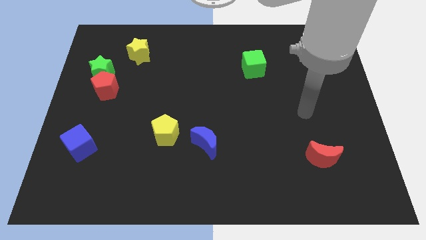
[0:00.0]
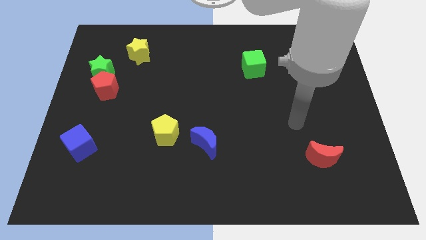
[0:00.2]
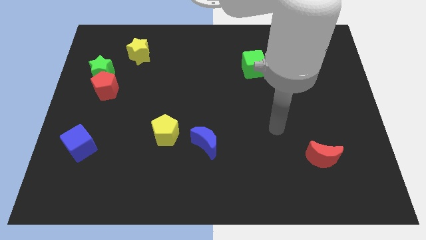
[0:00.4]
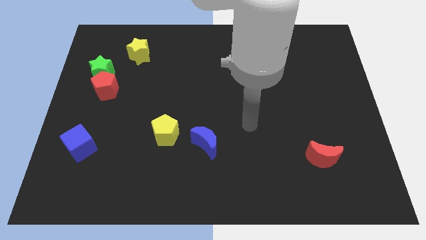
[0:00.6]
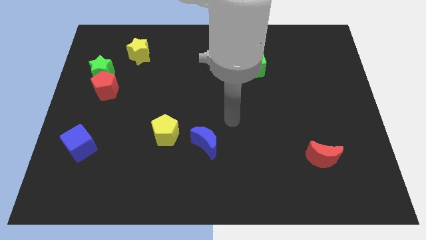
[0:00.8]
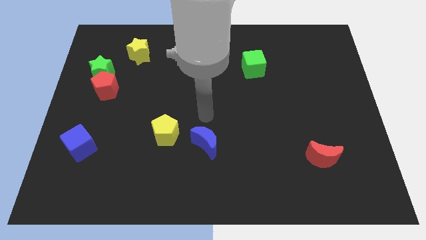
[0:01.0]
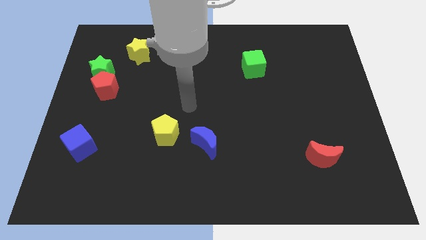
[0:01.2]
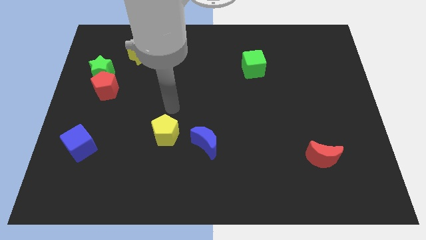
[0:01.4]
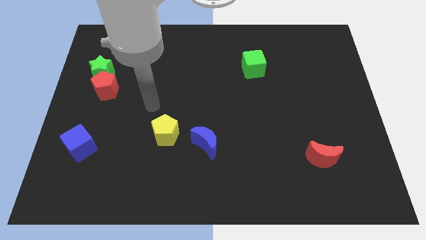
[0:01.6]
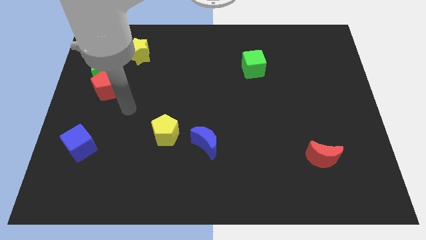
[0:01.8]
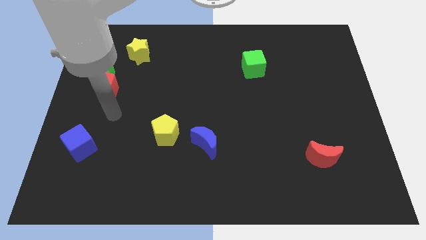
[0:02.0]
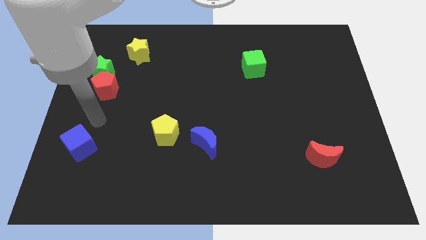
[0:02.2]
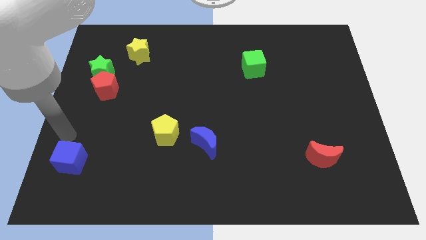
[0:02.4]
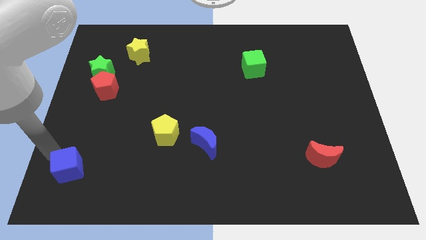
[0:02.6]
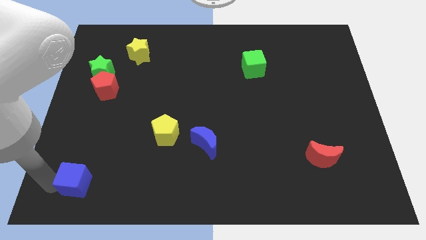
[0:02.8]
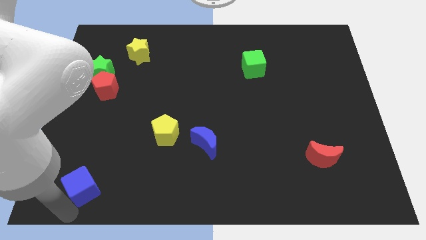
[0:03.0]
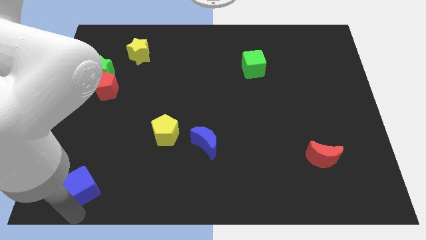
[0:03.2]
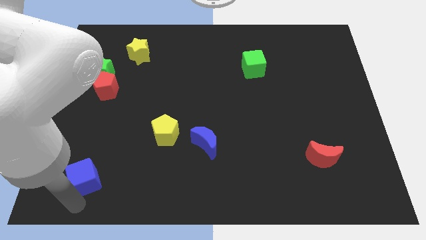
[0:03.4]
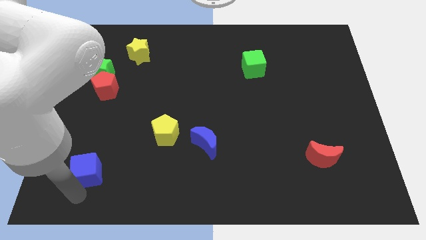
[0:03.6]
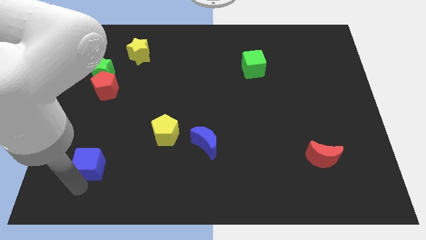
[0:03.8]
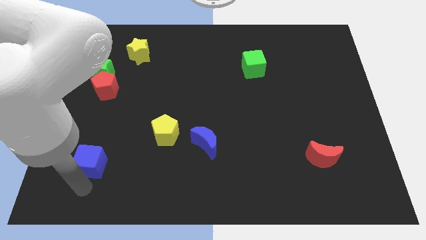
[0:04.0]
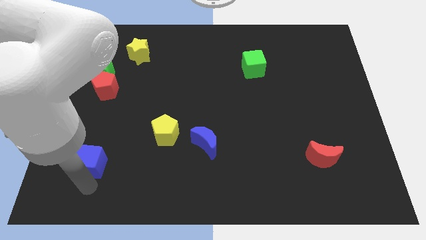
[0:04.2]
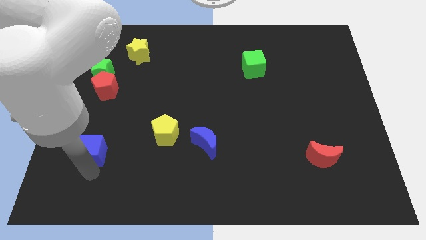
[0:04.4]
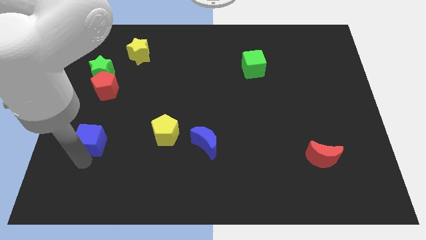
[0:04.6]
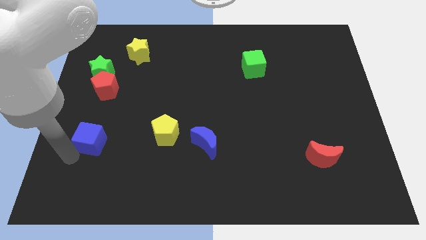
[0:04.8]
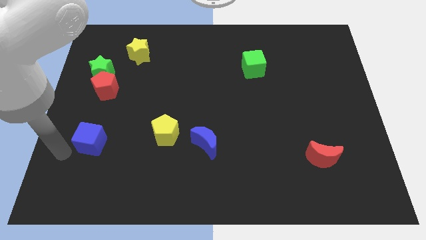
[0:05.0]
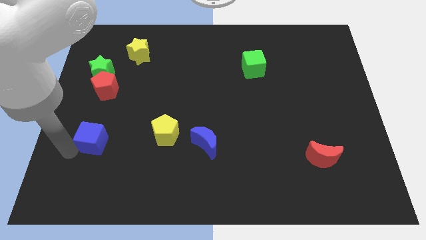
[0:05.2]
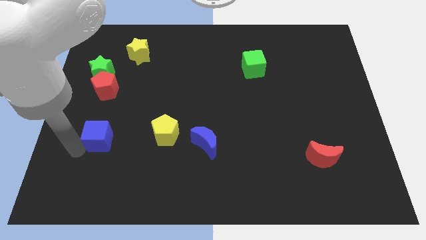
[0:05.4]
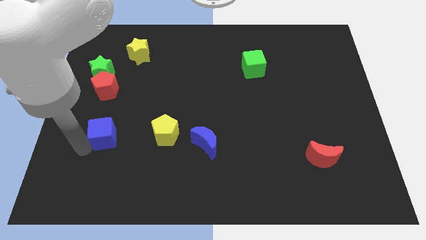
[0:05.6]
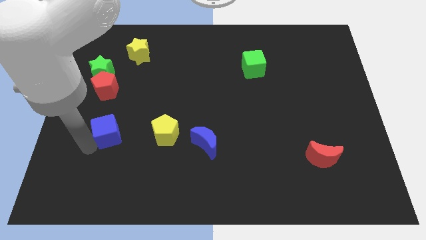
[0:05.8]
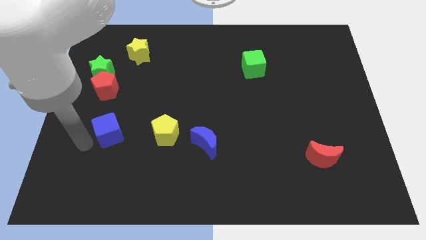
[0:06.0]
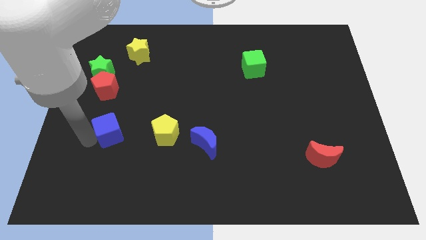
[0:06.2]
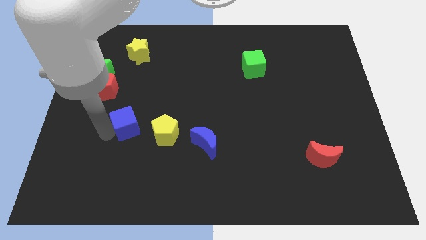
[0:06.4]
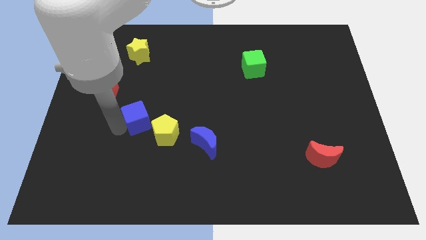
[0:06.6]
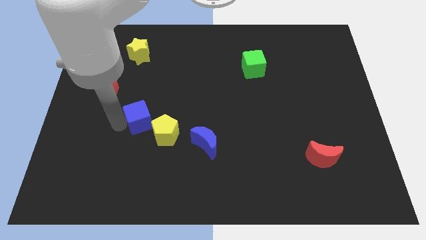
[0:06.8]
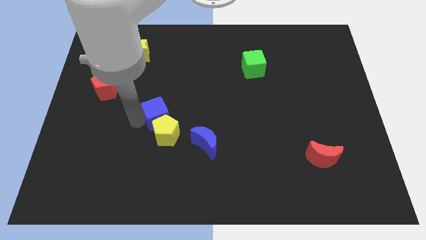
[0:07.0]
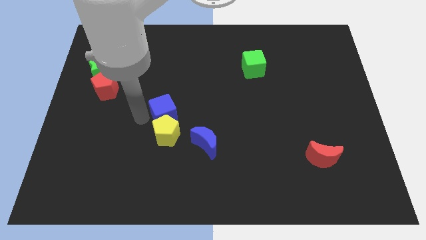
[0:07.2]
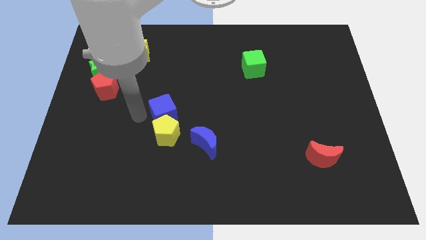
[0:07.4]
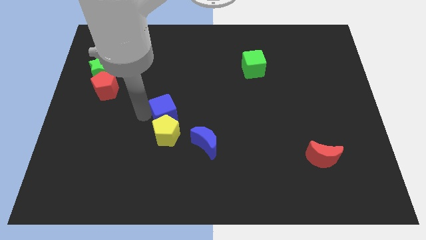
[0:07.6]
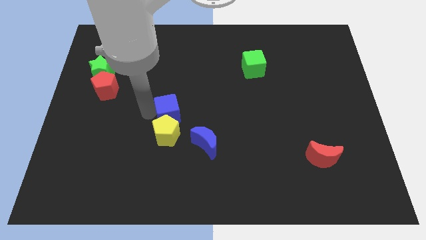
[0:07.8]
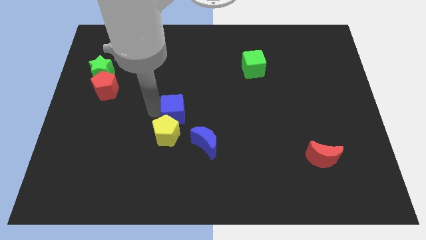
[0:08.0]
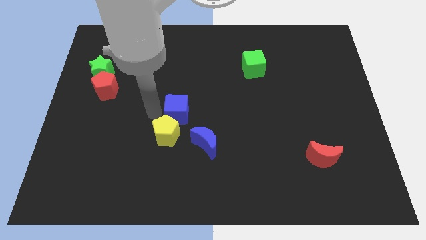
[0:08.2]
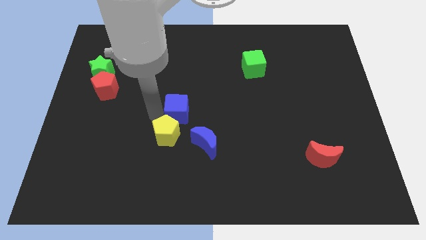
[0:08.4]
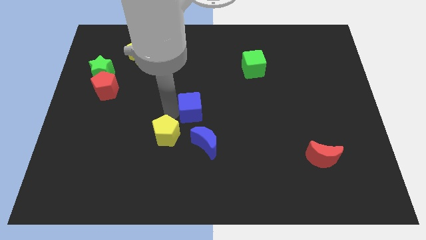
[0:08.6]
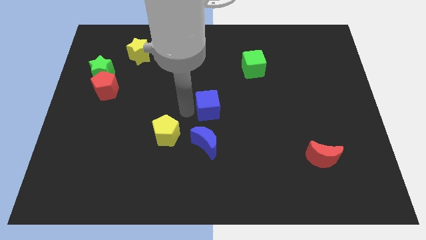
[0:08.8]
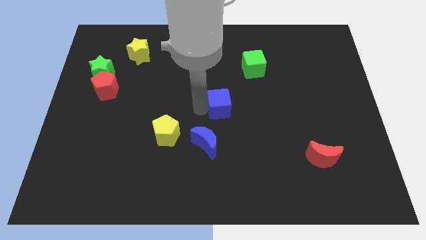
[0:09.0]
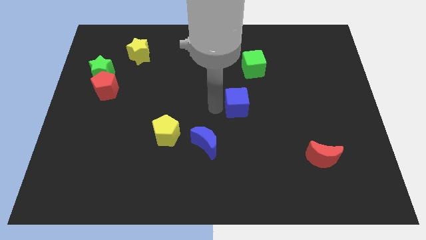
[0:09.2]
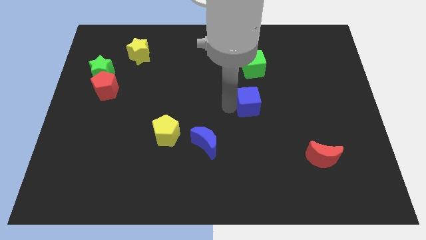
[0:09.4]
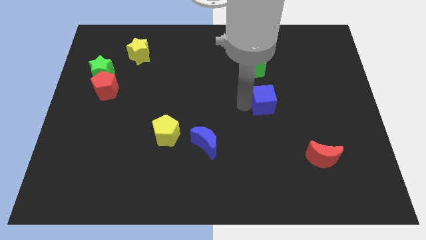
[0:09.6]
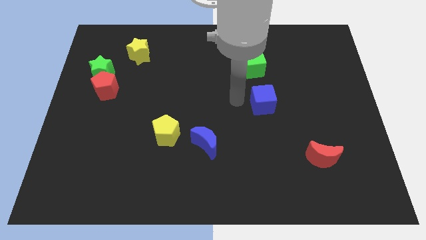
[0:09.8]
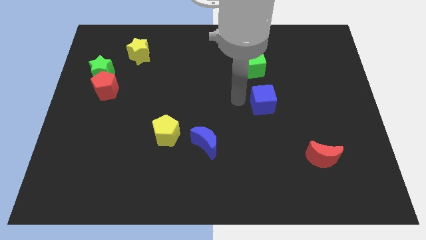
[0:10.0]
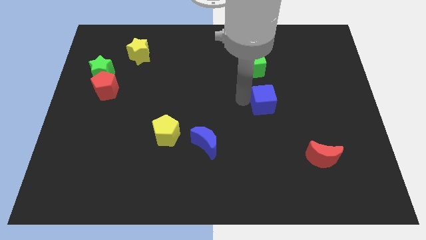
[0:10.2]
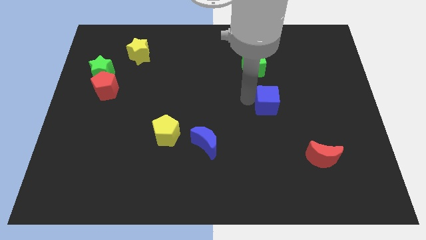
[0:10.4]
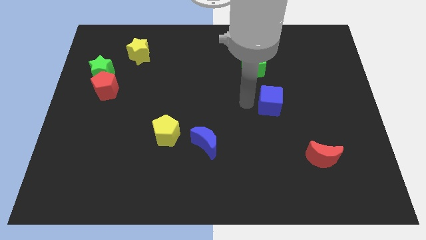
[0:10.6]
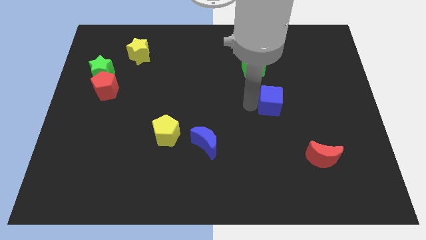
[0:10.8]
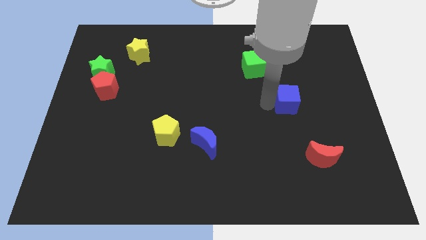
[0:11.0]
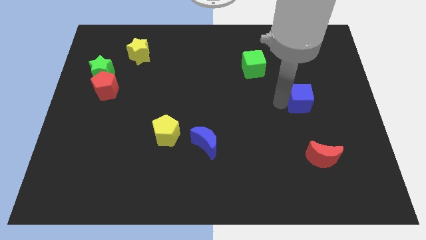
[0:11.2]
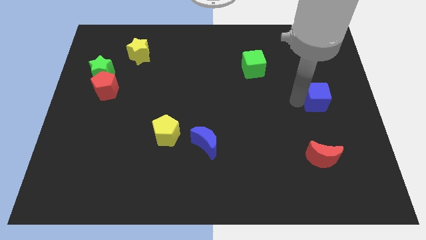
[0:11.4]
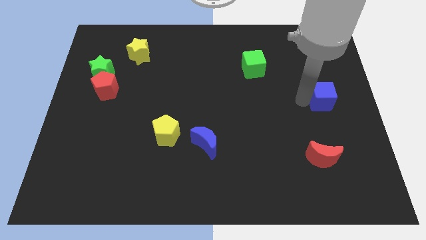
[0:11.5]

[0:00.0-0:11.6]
slide the blue cube to the right side of the board
